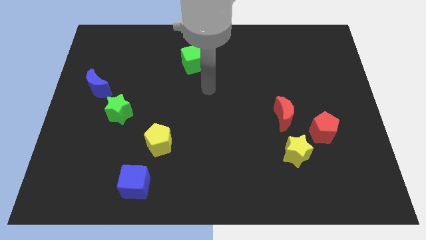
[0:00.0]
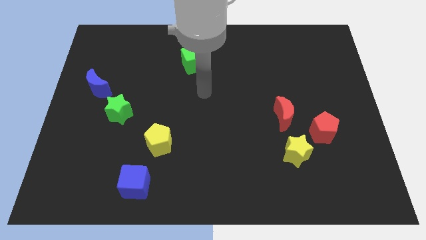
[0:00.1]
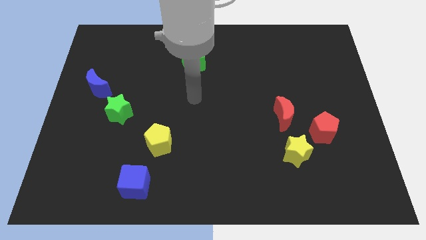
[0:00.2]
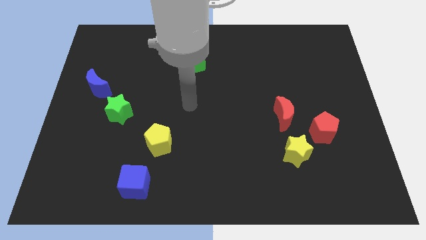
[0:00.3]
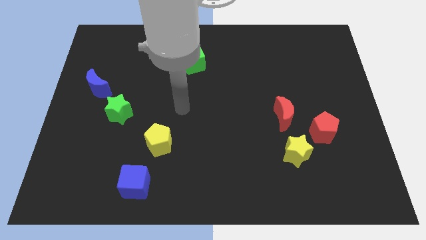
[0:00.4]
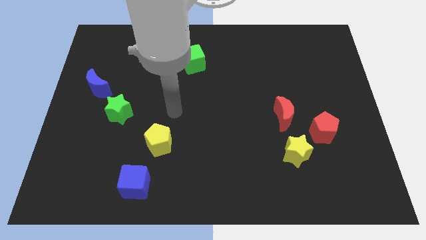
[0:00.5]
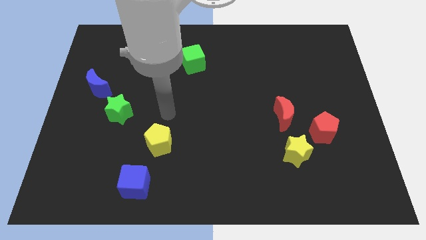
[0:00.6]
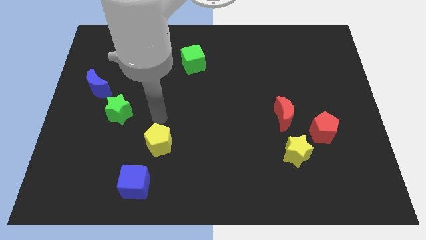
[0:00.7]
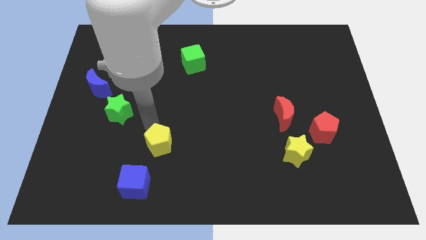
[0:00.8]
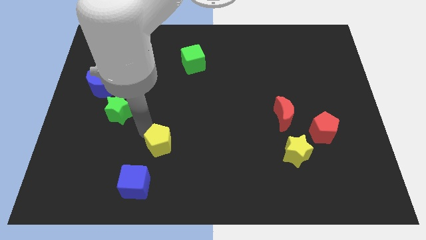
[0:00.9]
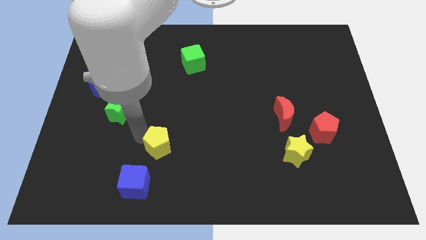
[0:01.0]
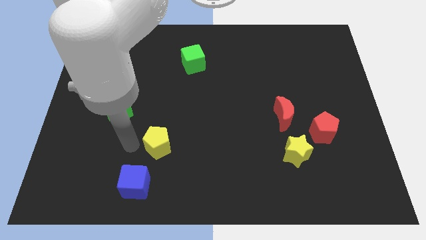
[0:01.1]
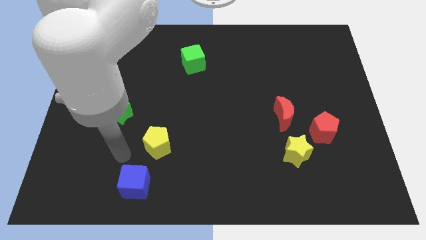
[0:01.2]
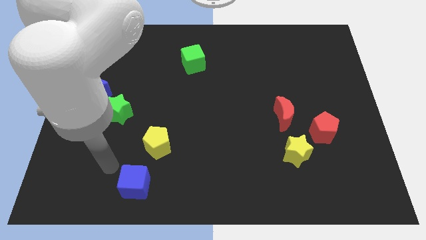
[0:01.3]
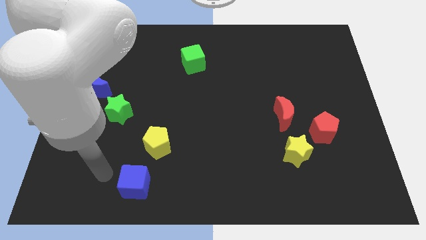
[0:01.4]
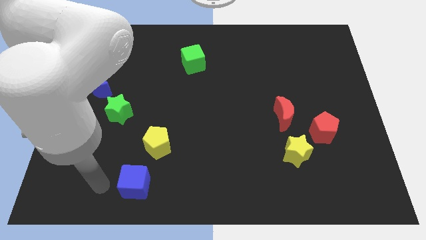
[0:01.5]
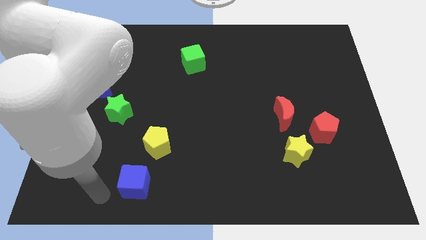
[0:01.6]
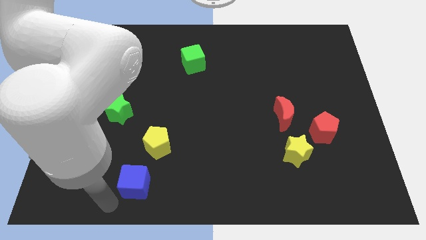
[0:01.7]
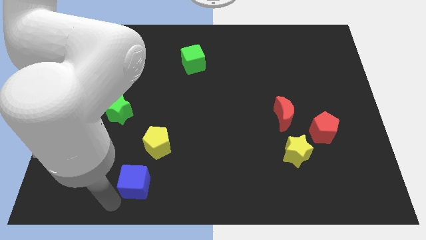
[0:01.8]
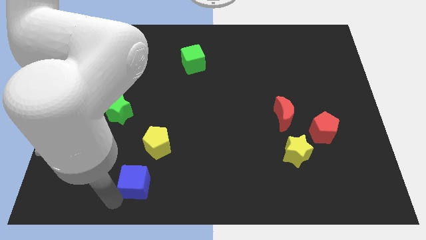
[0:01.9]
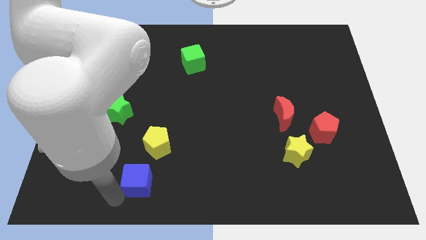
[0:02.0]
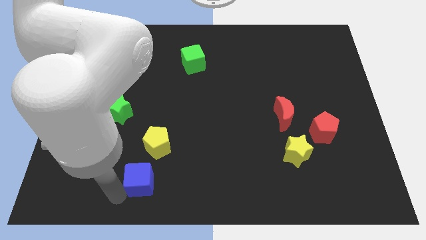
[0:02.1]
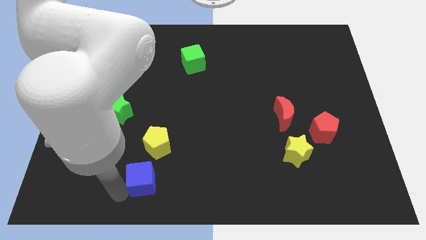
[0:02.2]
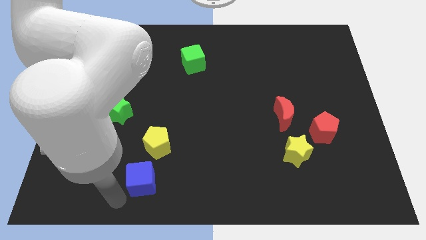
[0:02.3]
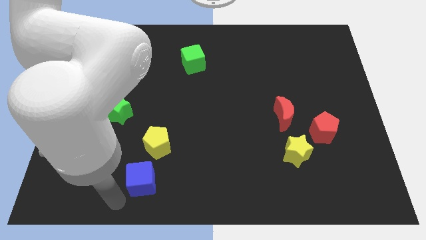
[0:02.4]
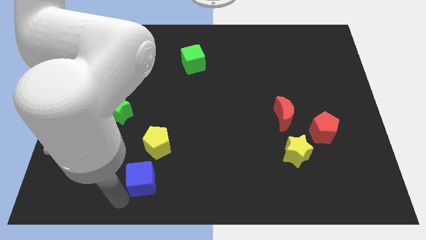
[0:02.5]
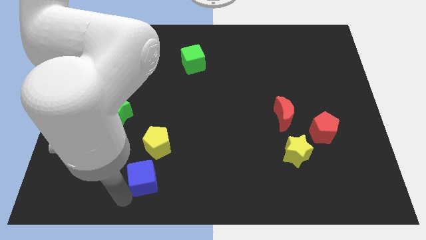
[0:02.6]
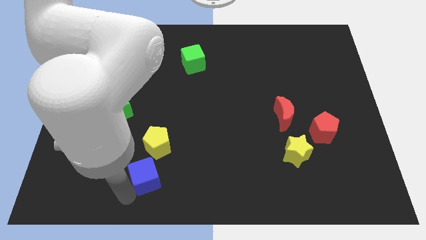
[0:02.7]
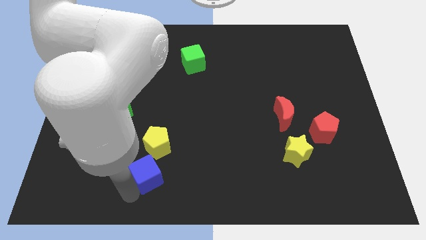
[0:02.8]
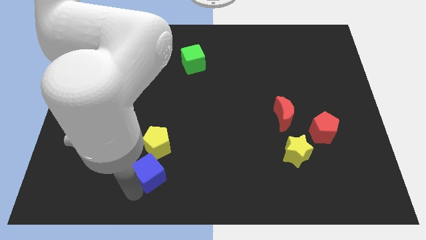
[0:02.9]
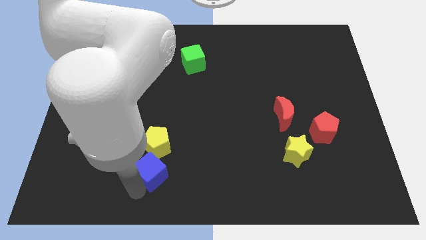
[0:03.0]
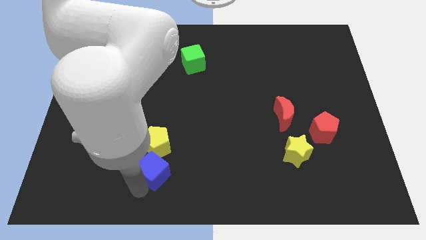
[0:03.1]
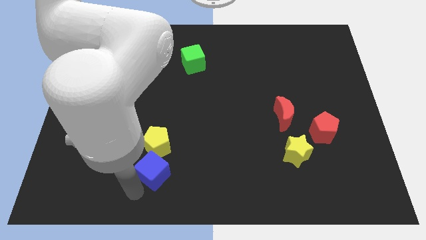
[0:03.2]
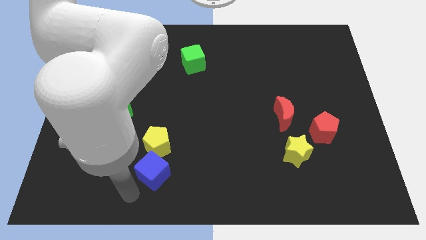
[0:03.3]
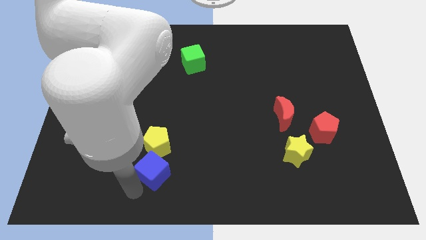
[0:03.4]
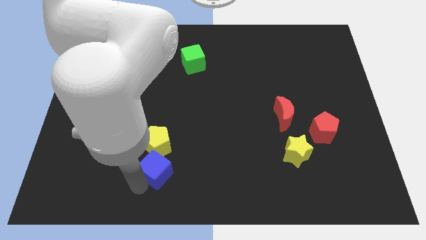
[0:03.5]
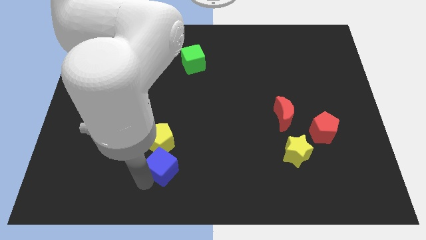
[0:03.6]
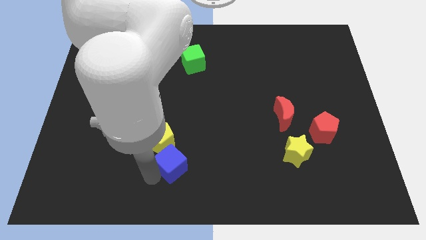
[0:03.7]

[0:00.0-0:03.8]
move the blue cube diagonally upwards and right somewhat

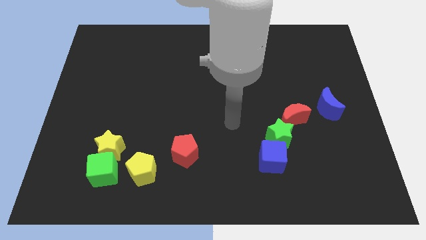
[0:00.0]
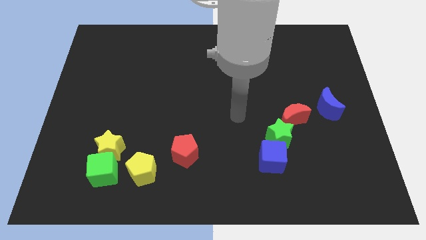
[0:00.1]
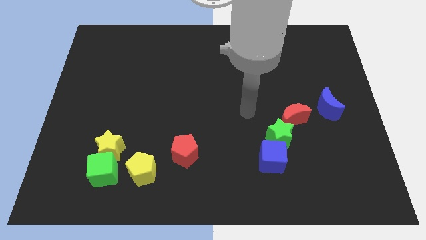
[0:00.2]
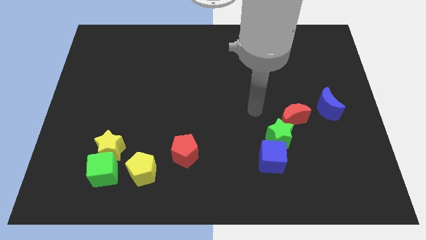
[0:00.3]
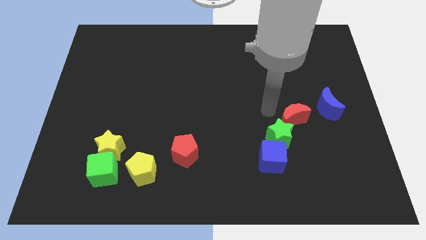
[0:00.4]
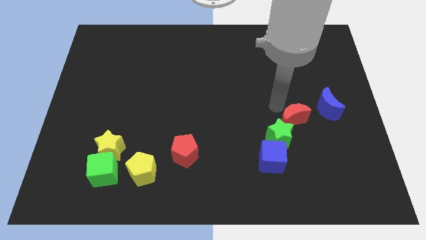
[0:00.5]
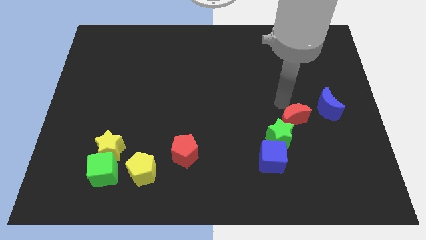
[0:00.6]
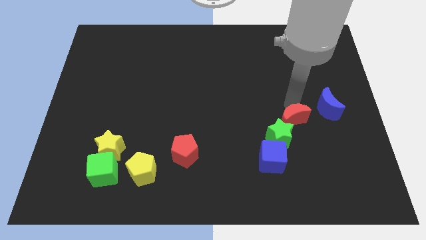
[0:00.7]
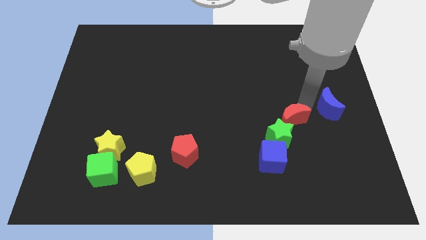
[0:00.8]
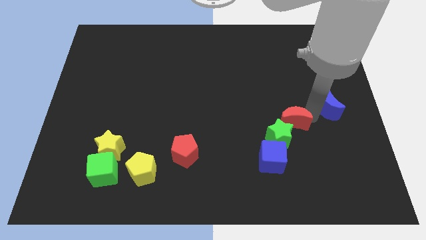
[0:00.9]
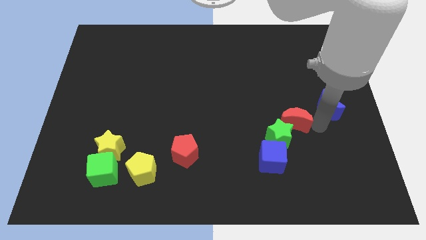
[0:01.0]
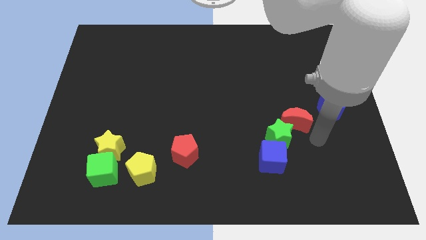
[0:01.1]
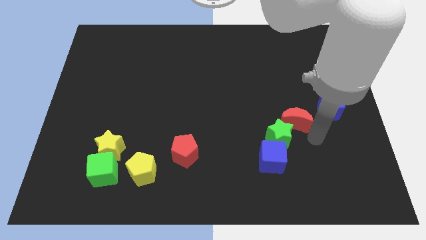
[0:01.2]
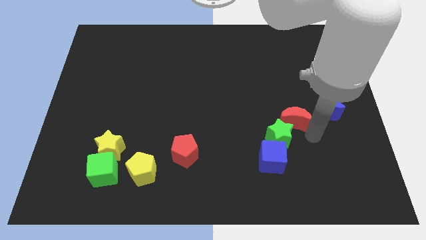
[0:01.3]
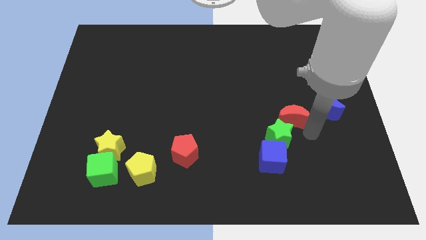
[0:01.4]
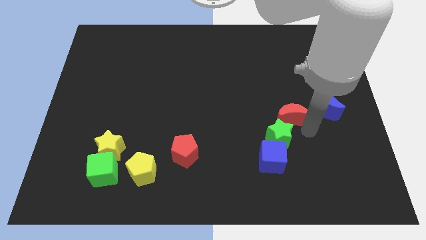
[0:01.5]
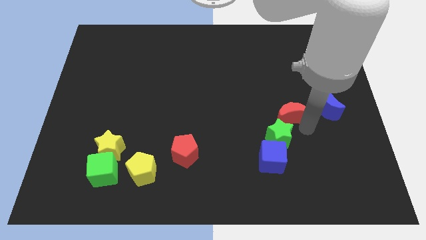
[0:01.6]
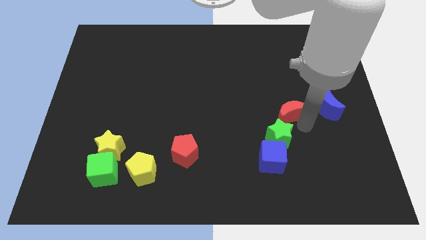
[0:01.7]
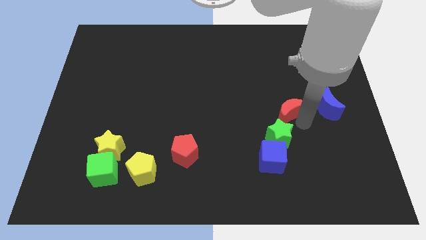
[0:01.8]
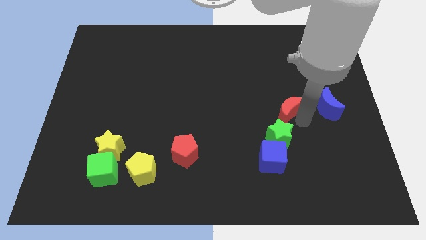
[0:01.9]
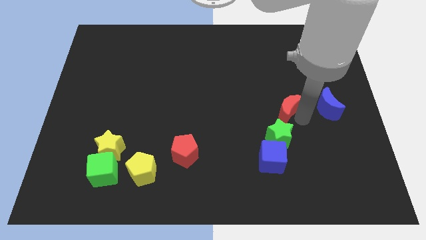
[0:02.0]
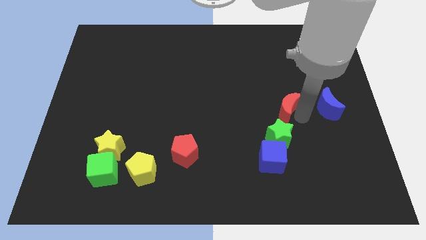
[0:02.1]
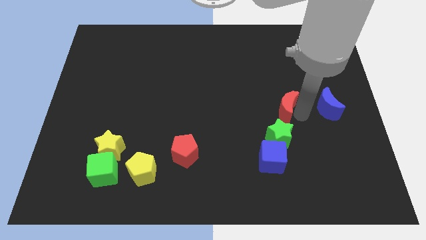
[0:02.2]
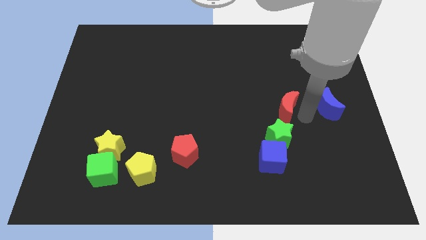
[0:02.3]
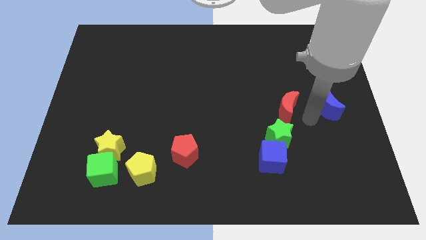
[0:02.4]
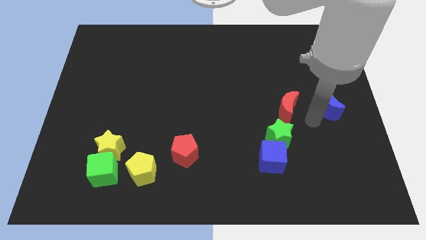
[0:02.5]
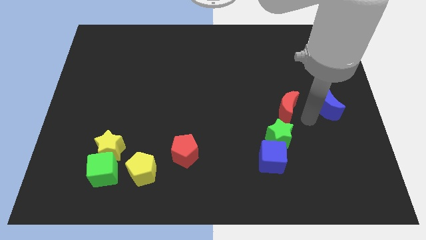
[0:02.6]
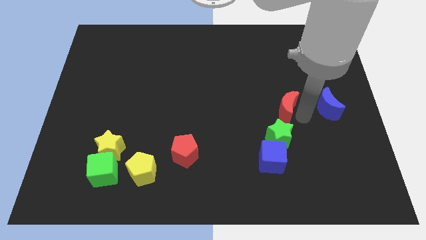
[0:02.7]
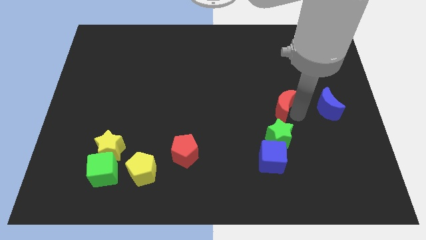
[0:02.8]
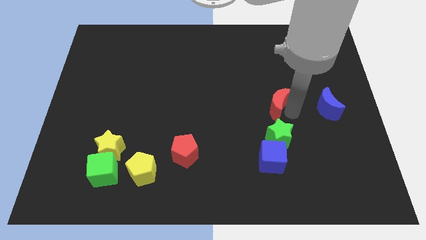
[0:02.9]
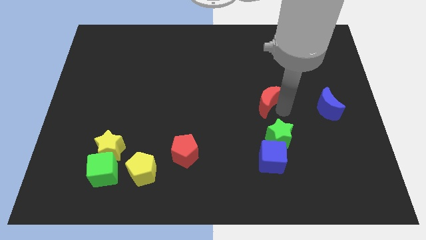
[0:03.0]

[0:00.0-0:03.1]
push the red moon upwards and then left a little

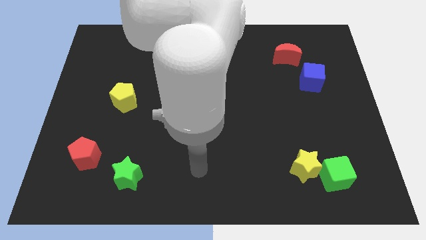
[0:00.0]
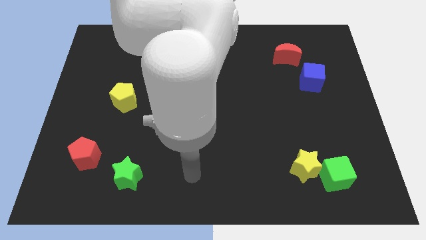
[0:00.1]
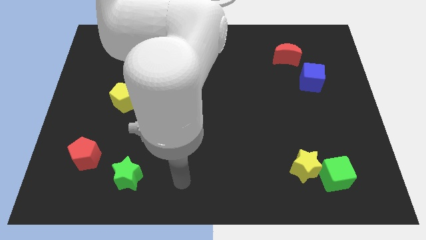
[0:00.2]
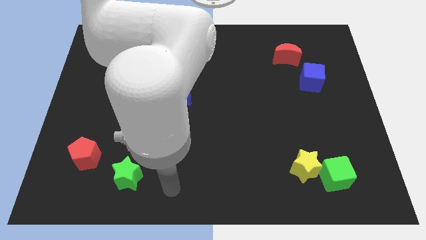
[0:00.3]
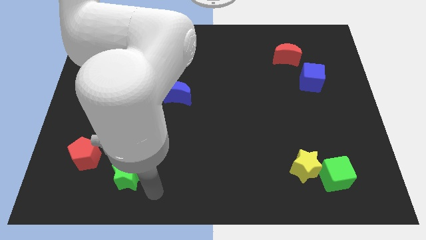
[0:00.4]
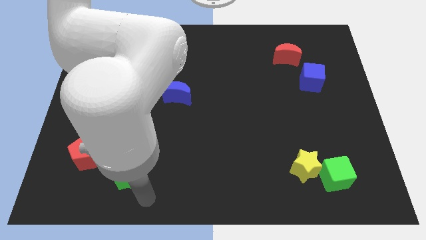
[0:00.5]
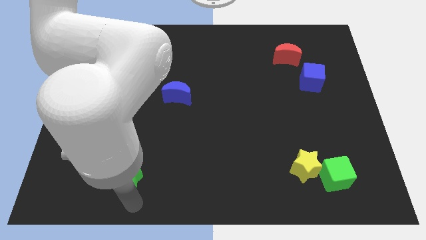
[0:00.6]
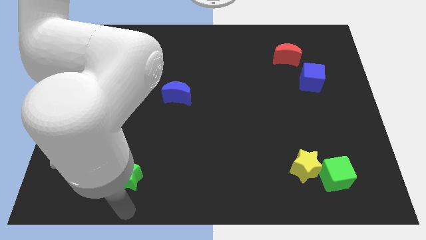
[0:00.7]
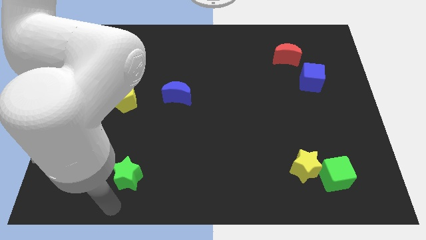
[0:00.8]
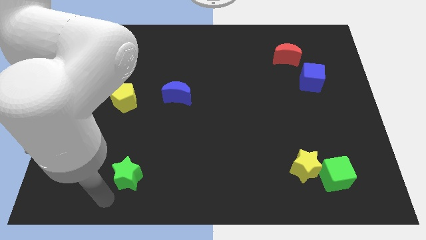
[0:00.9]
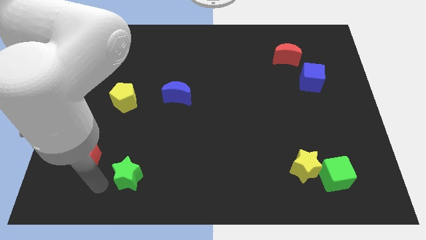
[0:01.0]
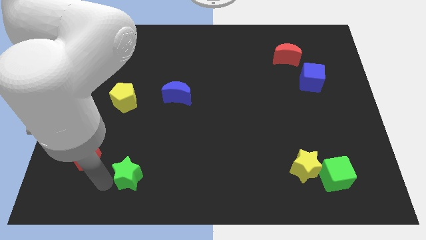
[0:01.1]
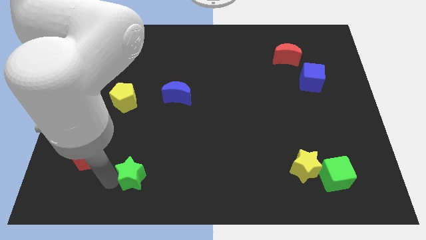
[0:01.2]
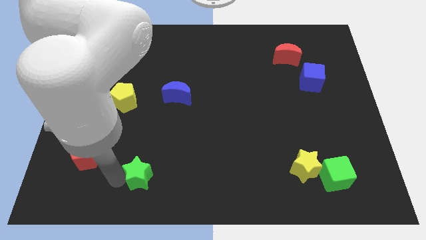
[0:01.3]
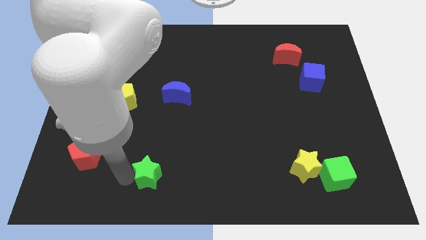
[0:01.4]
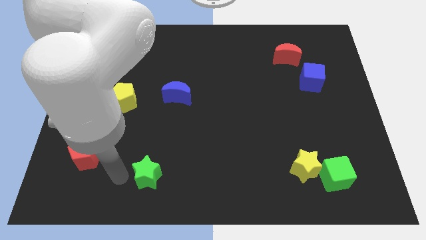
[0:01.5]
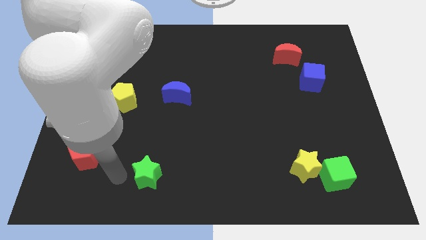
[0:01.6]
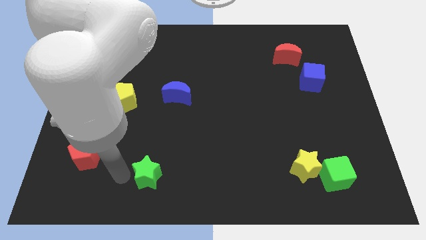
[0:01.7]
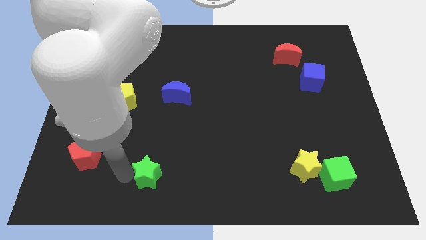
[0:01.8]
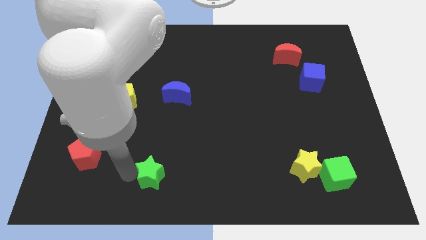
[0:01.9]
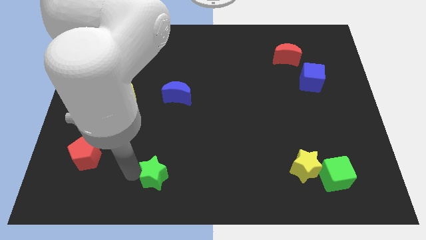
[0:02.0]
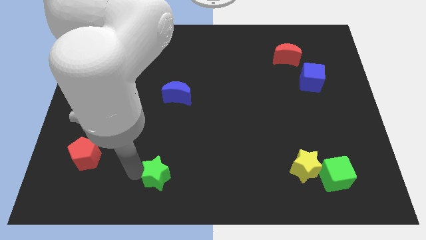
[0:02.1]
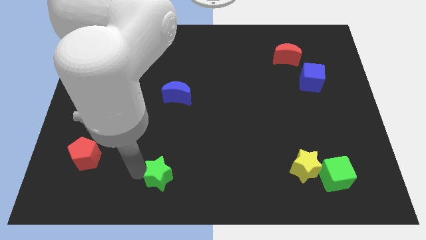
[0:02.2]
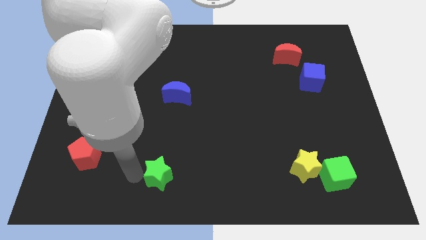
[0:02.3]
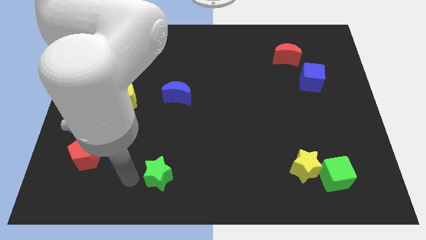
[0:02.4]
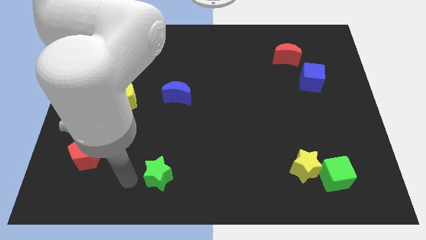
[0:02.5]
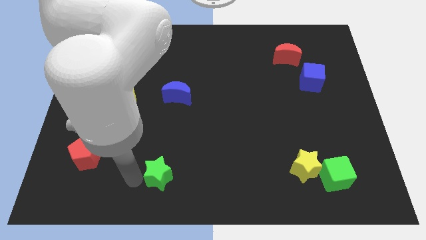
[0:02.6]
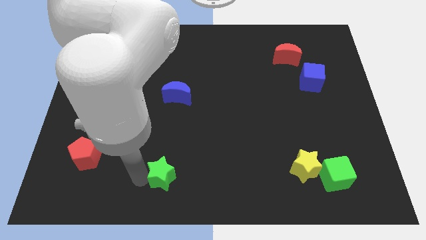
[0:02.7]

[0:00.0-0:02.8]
slide the green star slightly right
